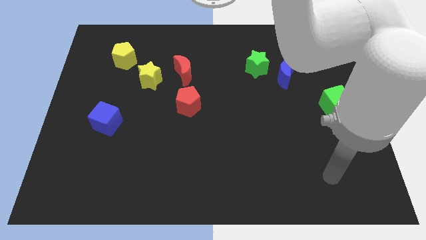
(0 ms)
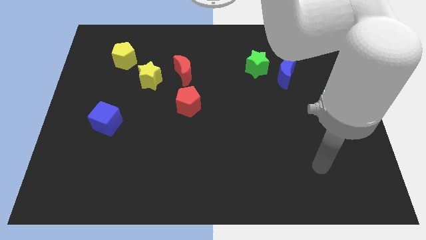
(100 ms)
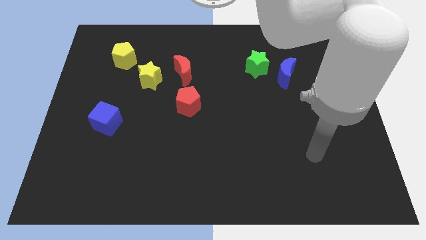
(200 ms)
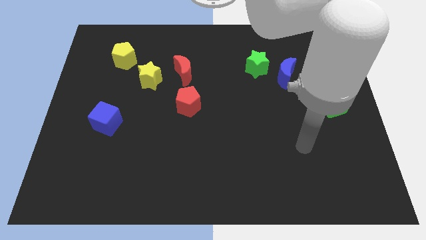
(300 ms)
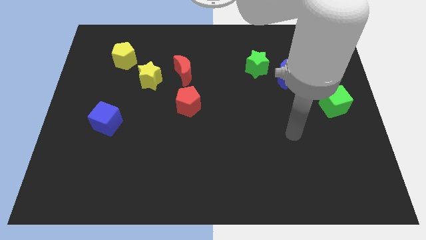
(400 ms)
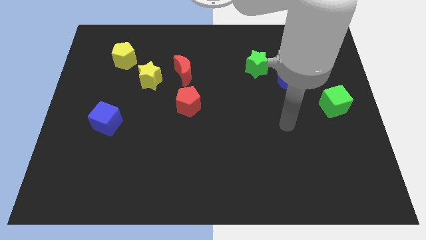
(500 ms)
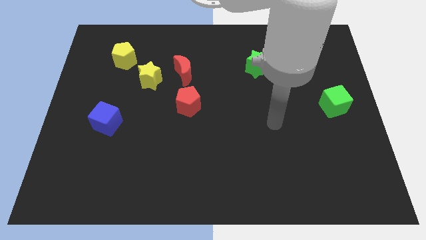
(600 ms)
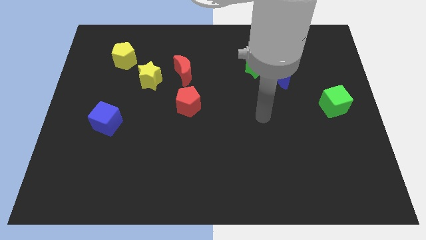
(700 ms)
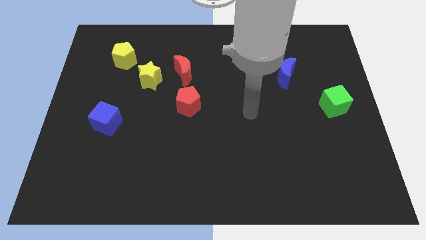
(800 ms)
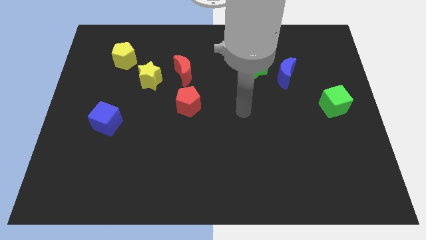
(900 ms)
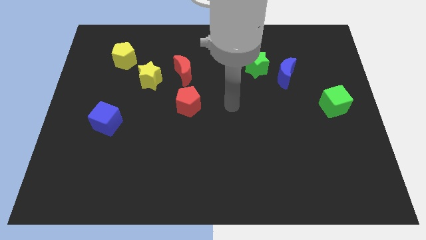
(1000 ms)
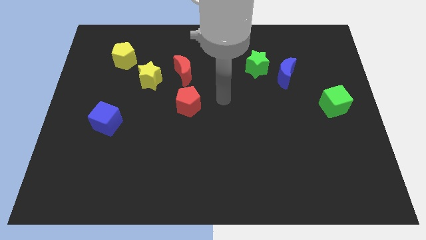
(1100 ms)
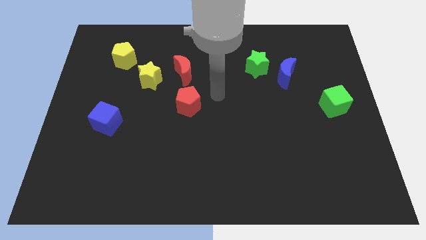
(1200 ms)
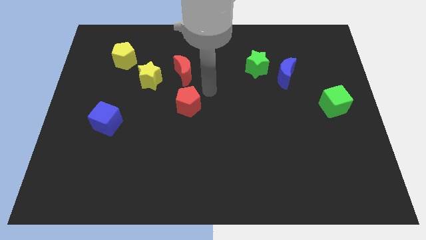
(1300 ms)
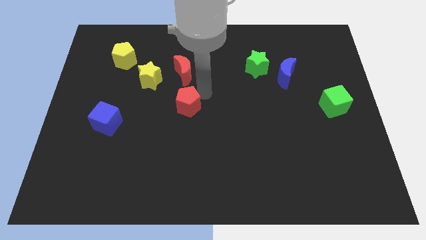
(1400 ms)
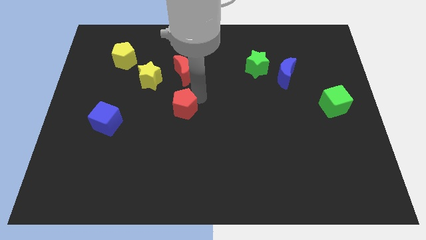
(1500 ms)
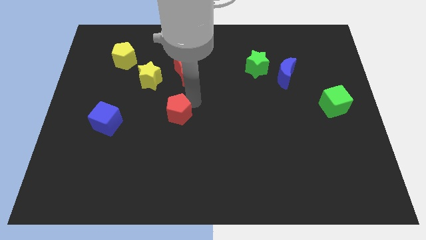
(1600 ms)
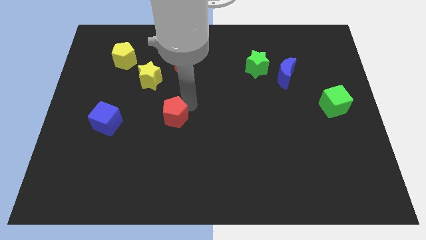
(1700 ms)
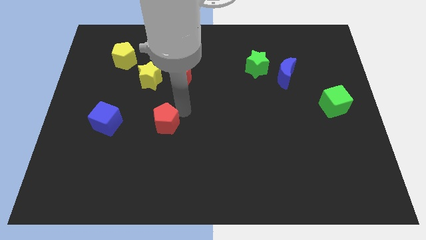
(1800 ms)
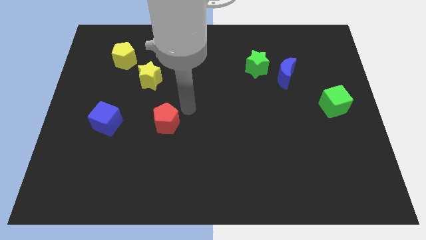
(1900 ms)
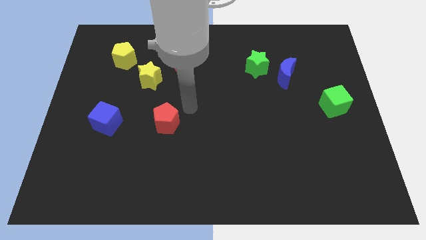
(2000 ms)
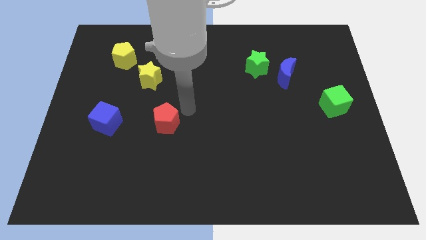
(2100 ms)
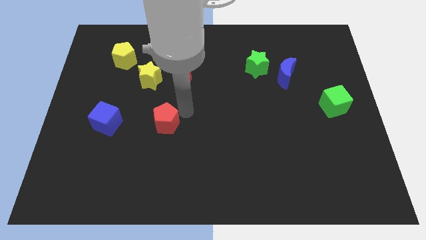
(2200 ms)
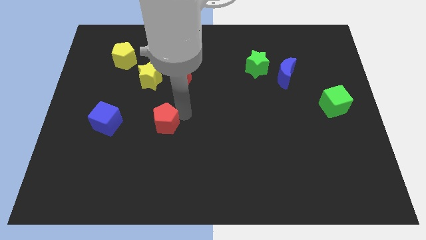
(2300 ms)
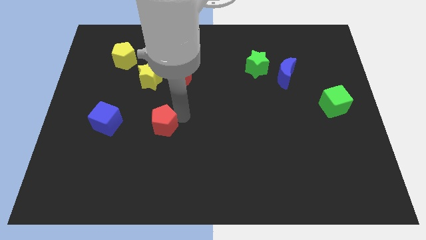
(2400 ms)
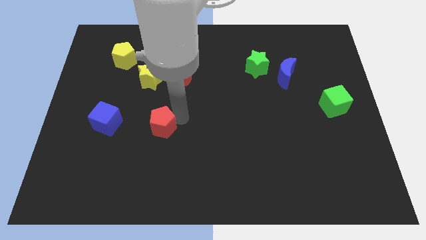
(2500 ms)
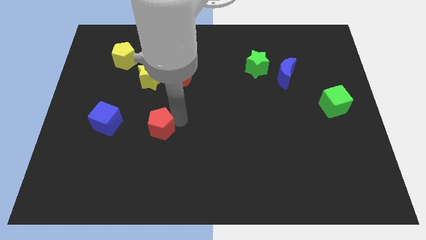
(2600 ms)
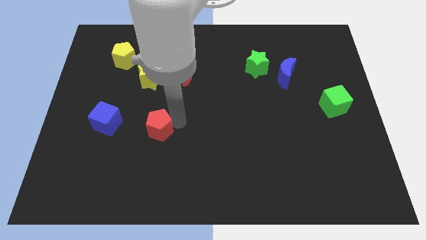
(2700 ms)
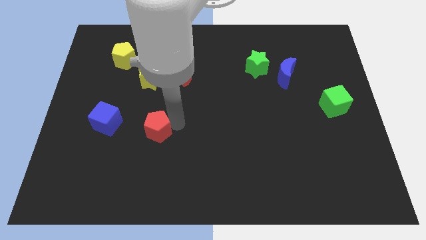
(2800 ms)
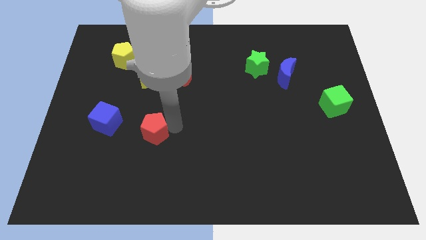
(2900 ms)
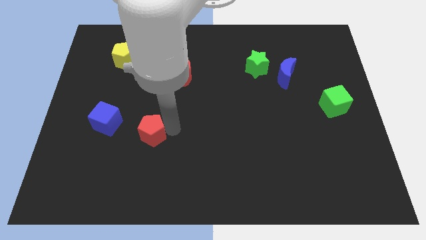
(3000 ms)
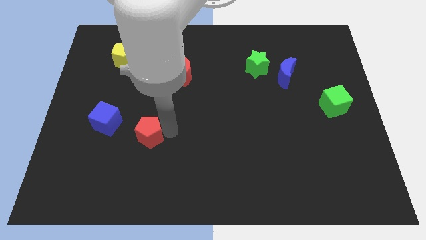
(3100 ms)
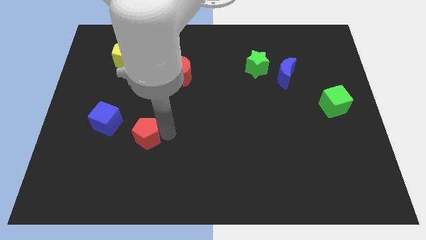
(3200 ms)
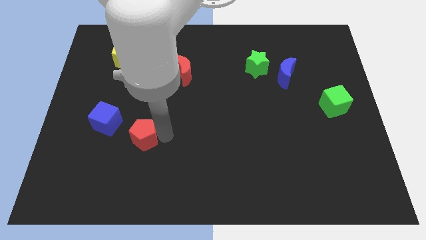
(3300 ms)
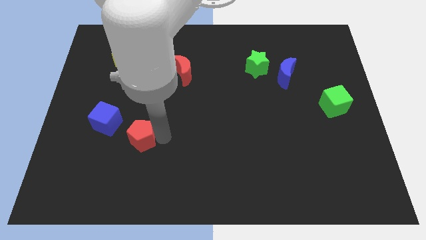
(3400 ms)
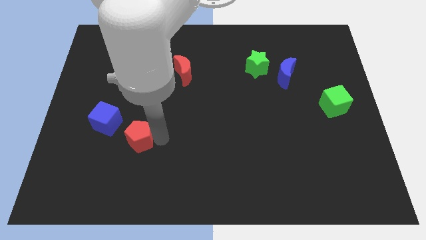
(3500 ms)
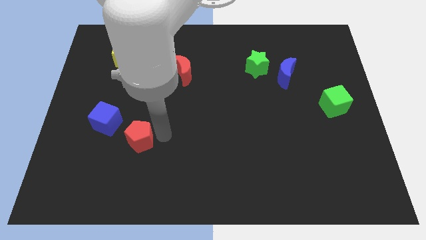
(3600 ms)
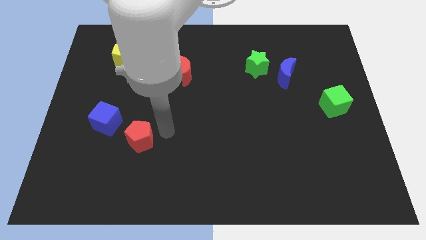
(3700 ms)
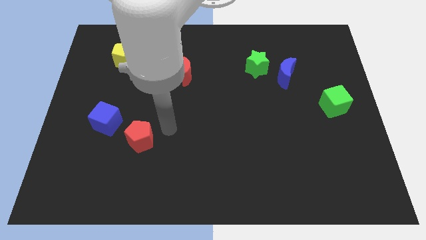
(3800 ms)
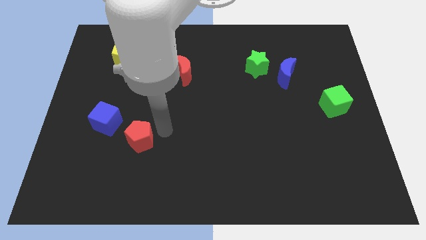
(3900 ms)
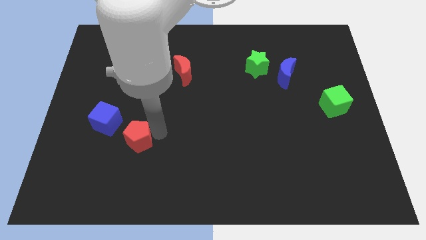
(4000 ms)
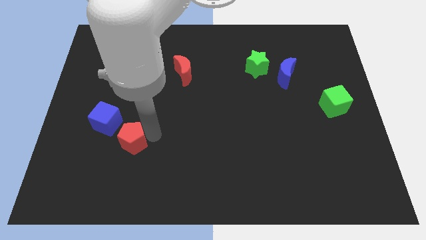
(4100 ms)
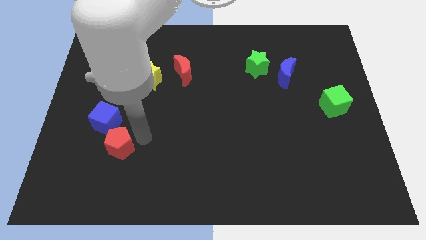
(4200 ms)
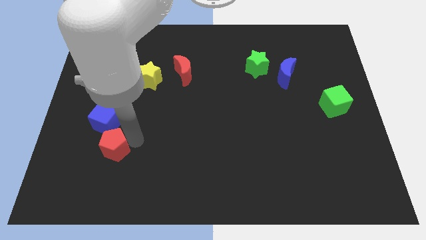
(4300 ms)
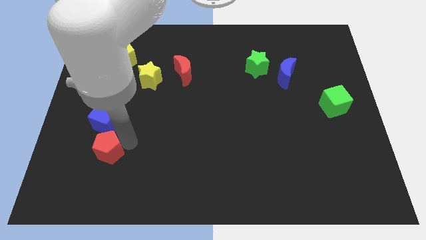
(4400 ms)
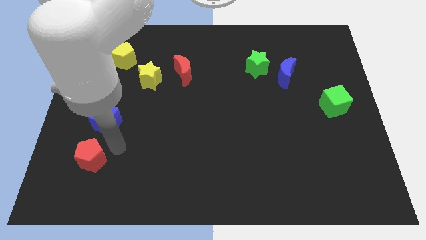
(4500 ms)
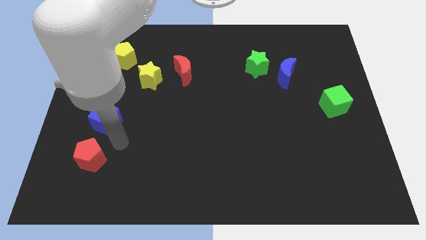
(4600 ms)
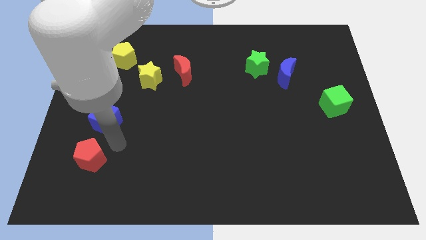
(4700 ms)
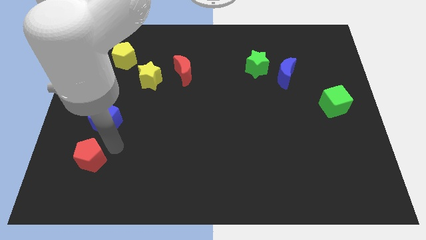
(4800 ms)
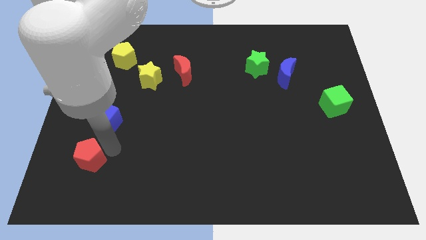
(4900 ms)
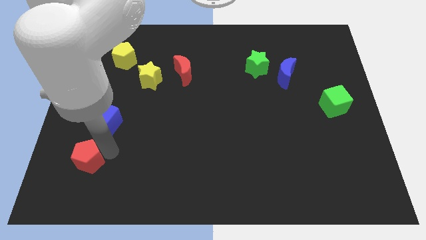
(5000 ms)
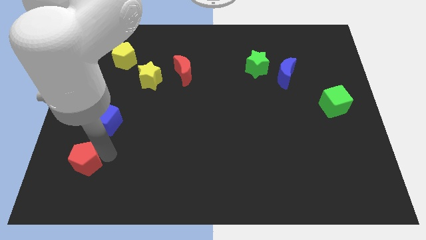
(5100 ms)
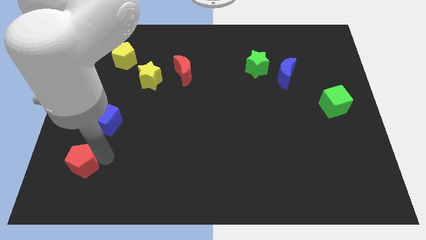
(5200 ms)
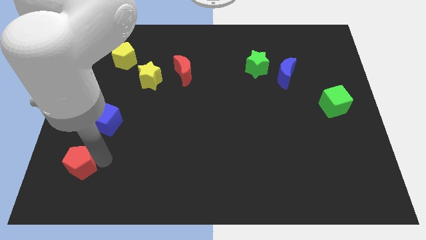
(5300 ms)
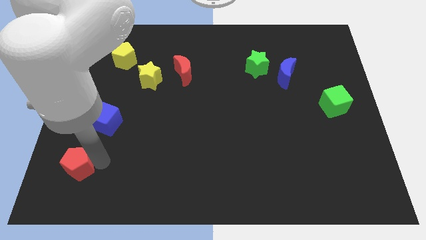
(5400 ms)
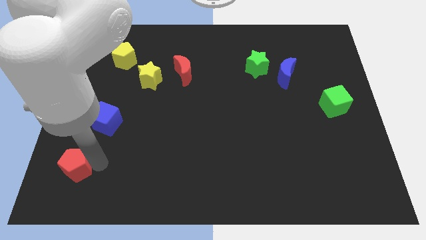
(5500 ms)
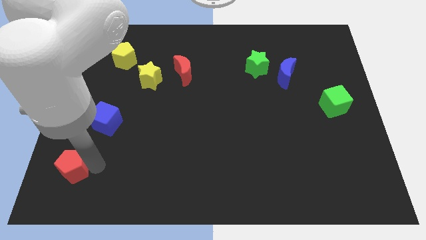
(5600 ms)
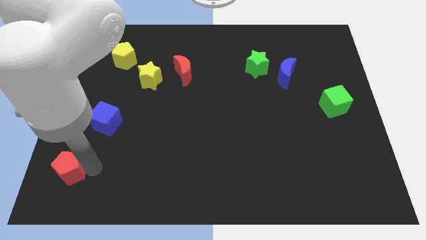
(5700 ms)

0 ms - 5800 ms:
push the red pentagon to the bottom left corner

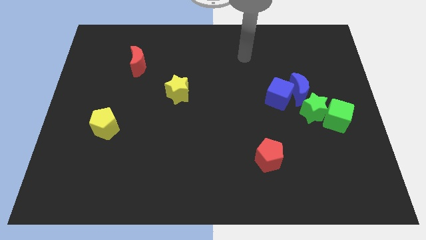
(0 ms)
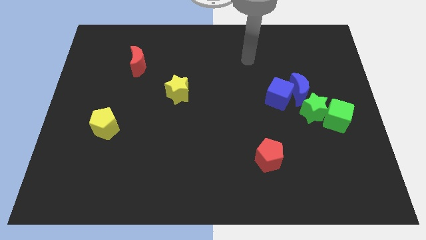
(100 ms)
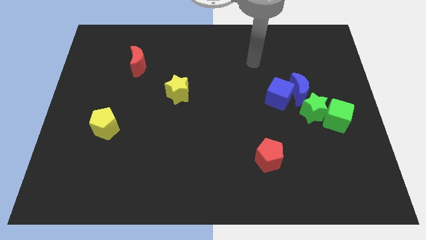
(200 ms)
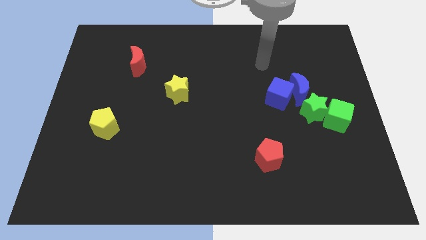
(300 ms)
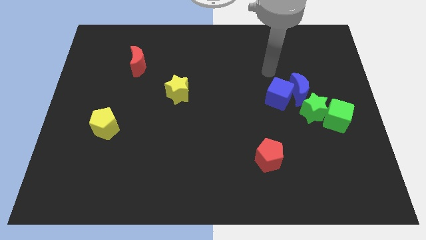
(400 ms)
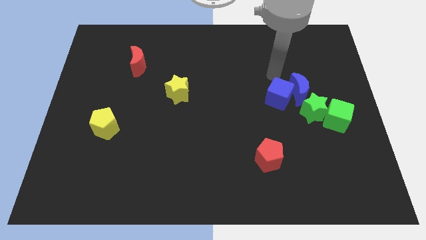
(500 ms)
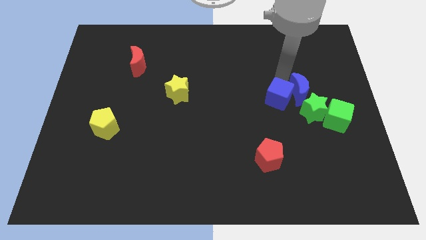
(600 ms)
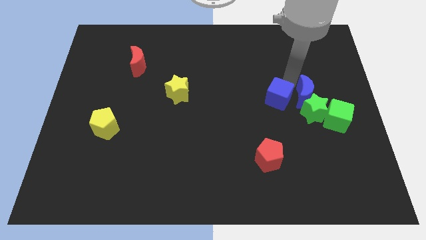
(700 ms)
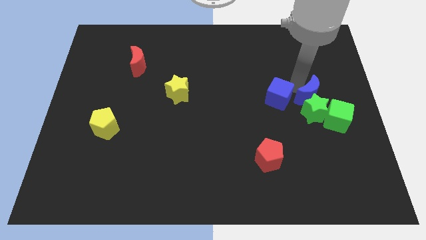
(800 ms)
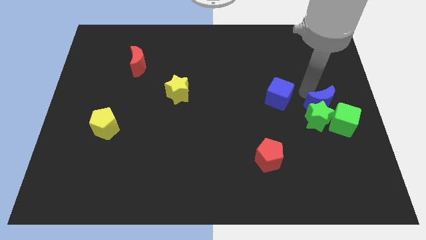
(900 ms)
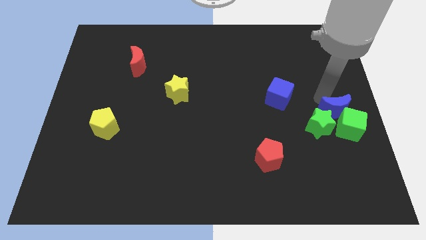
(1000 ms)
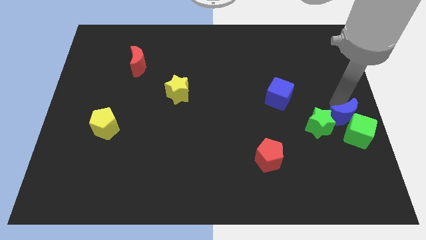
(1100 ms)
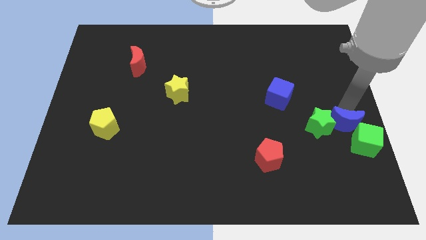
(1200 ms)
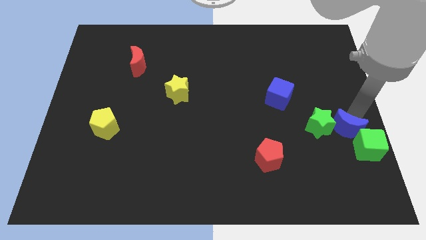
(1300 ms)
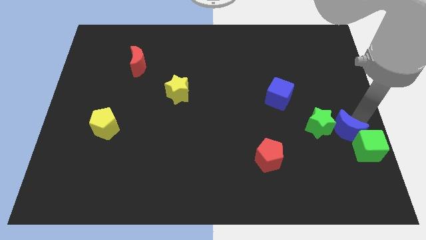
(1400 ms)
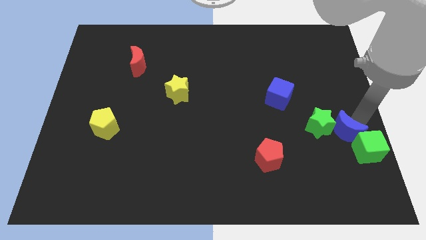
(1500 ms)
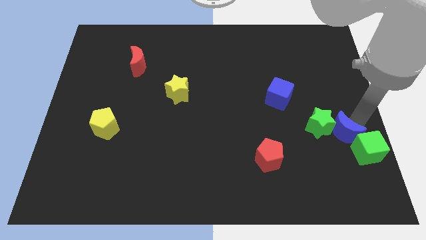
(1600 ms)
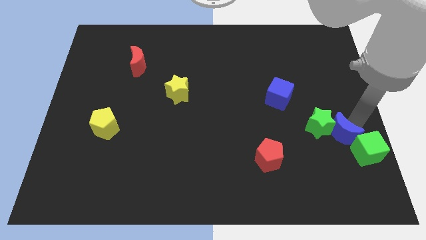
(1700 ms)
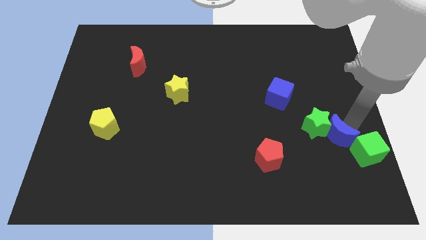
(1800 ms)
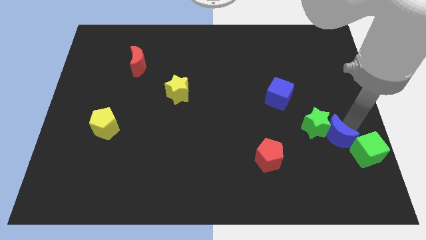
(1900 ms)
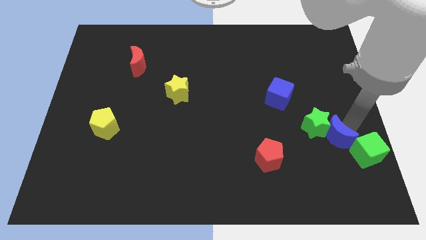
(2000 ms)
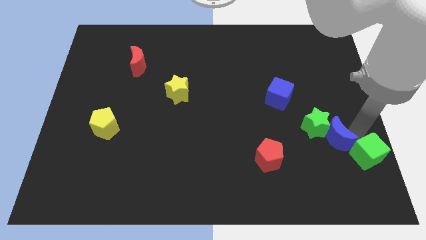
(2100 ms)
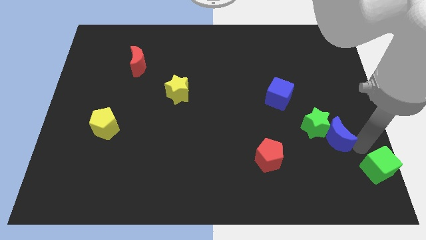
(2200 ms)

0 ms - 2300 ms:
push the green cube to the lower right corner
